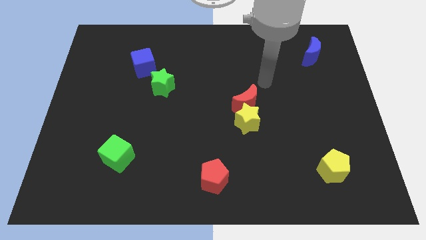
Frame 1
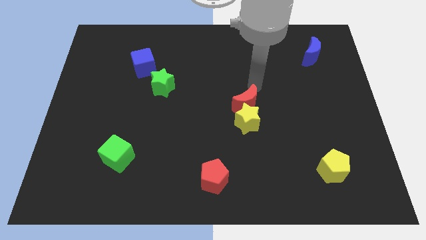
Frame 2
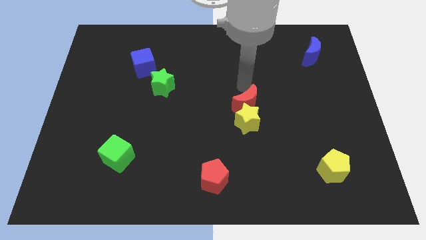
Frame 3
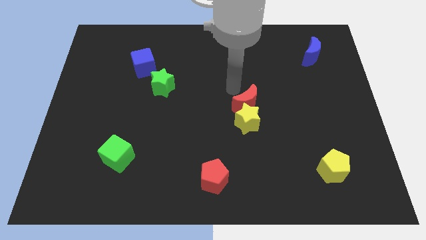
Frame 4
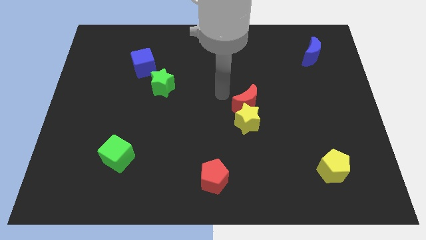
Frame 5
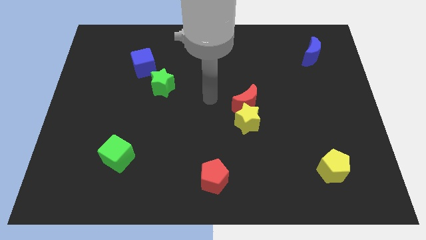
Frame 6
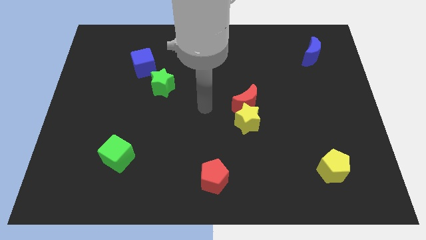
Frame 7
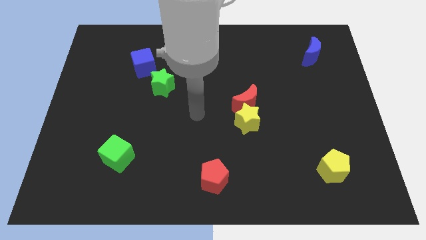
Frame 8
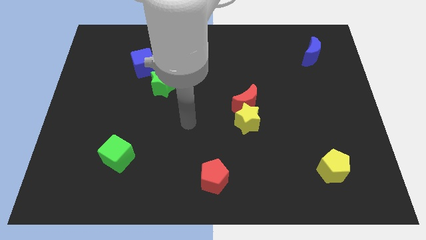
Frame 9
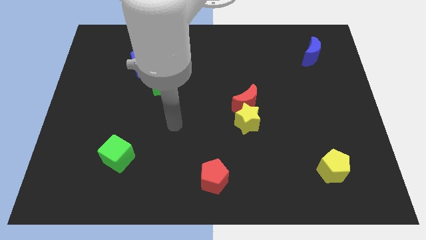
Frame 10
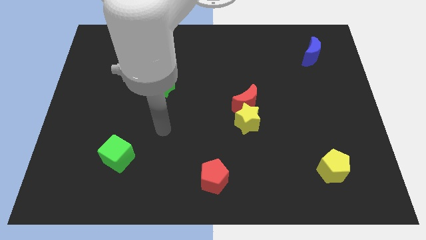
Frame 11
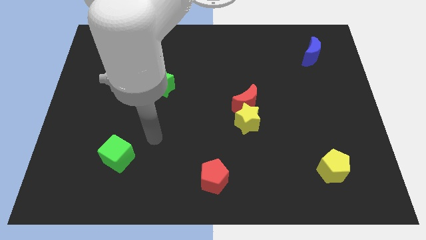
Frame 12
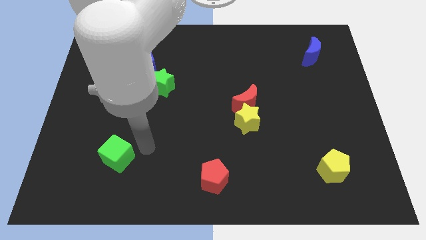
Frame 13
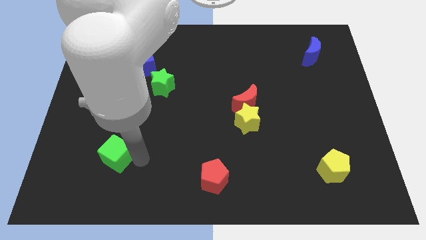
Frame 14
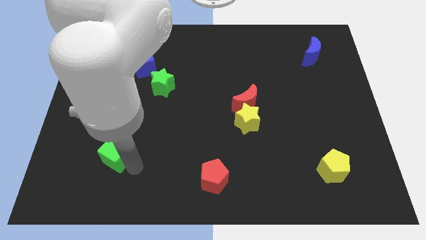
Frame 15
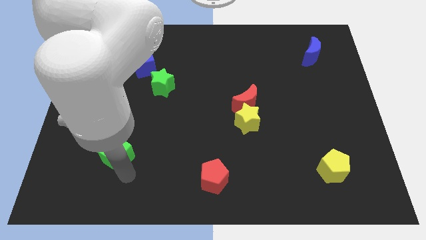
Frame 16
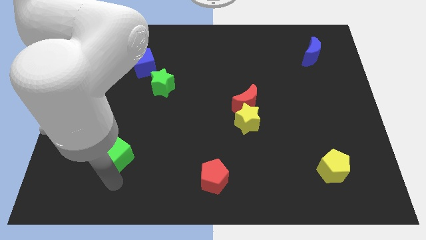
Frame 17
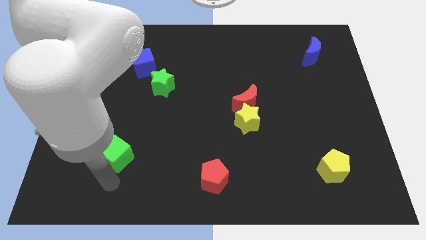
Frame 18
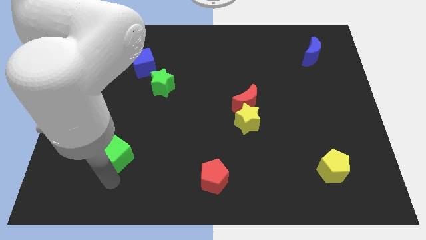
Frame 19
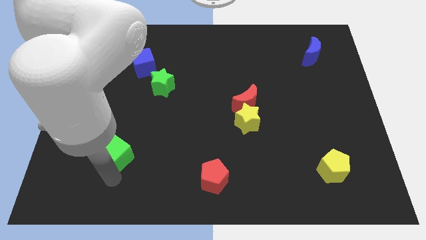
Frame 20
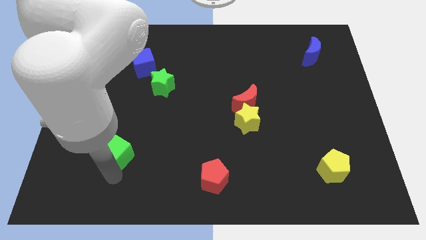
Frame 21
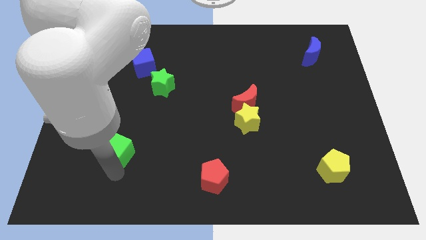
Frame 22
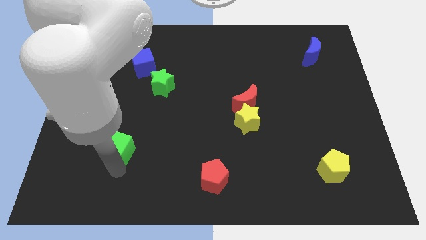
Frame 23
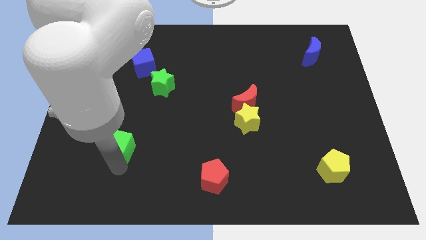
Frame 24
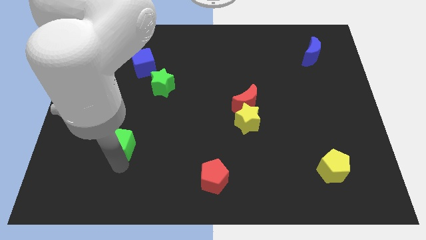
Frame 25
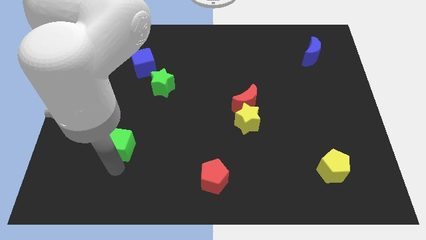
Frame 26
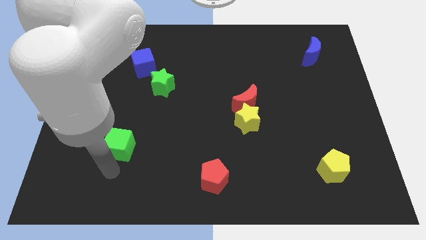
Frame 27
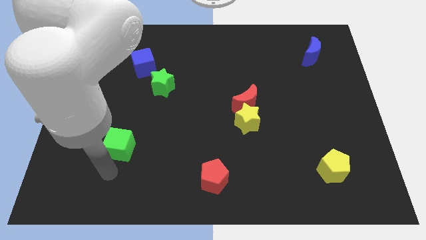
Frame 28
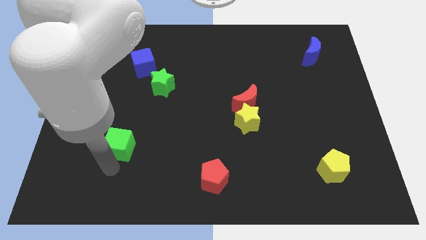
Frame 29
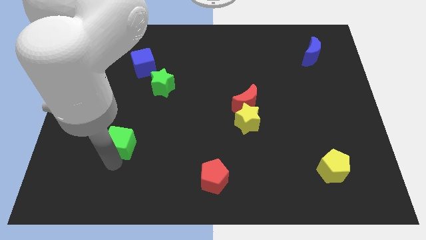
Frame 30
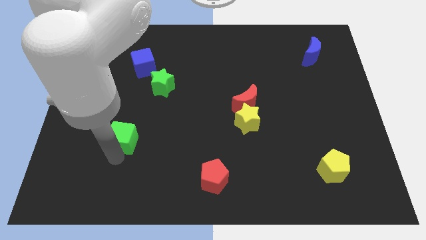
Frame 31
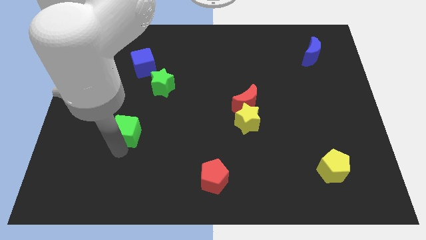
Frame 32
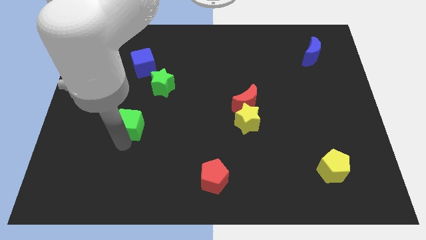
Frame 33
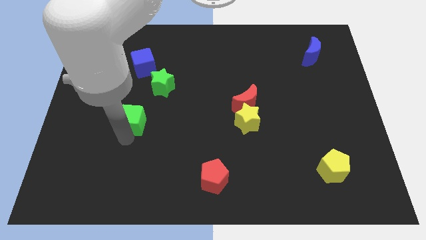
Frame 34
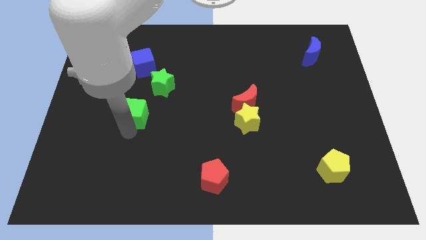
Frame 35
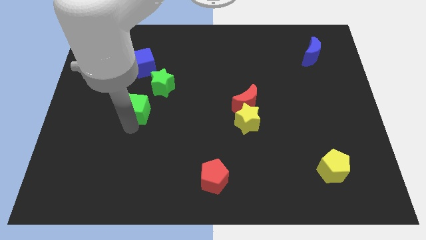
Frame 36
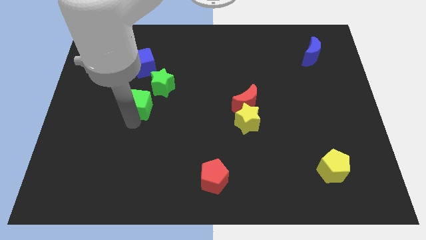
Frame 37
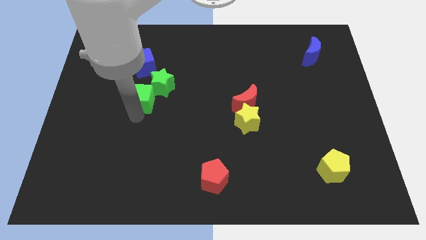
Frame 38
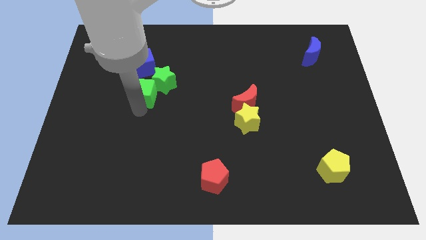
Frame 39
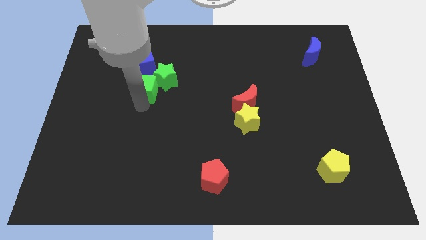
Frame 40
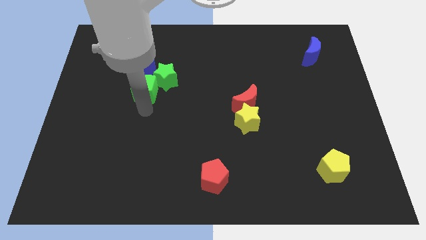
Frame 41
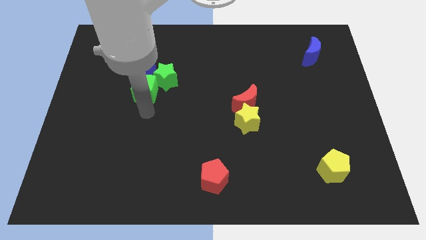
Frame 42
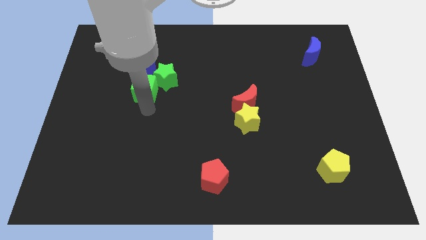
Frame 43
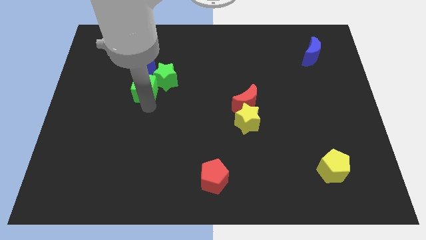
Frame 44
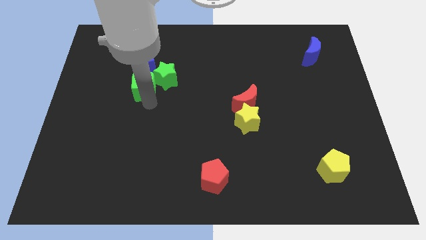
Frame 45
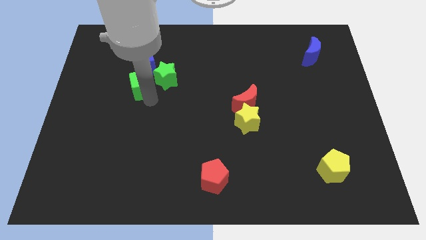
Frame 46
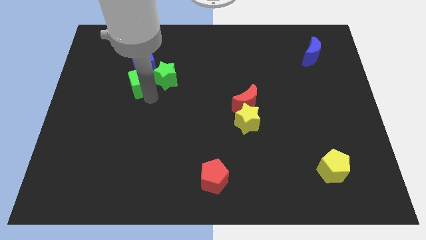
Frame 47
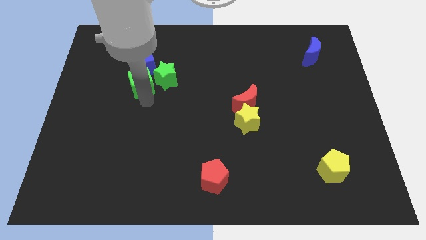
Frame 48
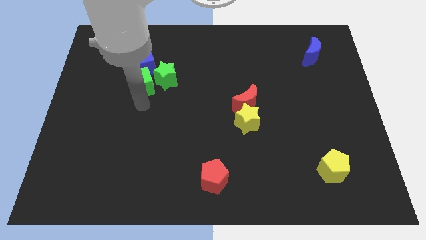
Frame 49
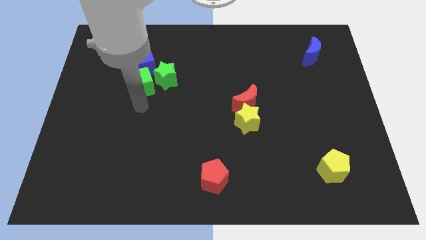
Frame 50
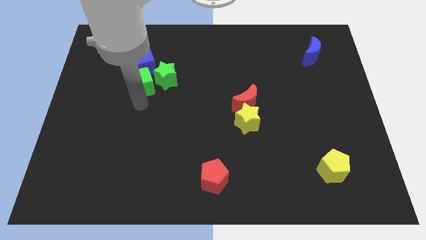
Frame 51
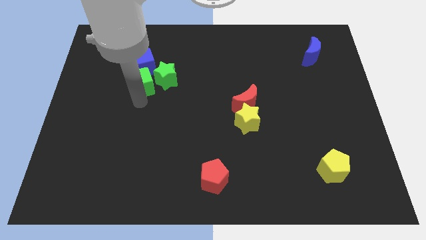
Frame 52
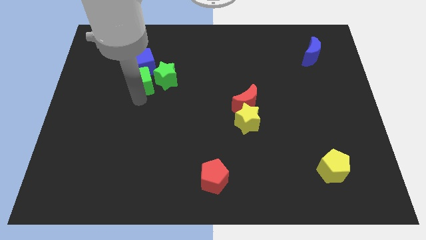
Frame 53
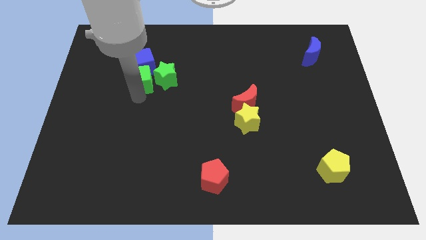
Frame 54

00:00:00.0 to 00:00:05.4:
put the green cube to the blue cube

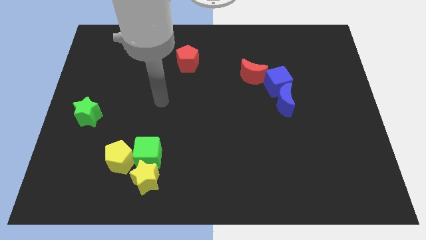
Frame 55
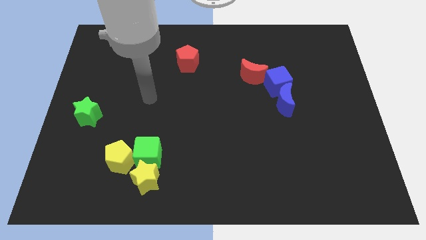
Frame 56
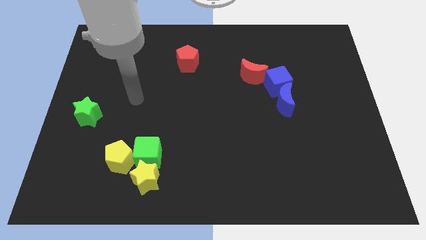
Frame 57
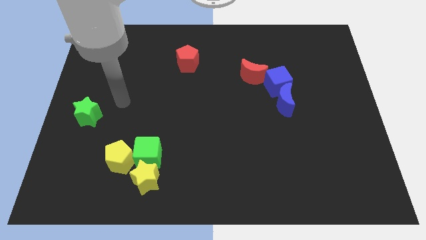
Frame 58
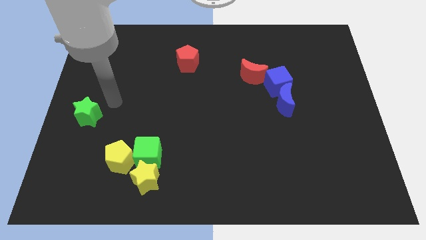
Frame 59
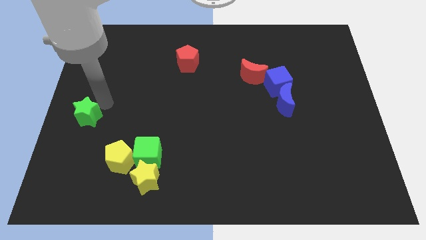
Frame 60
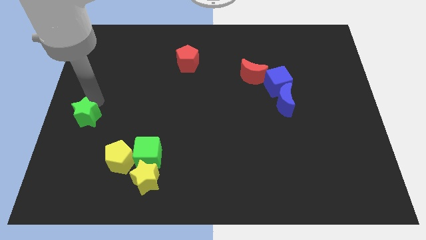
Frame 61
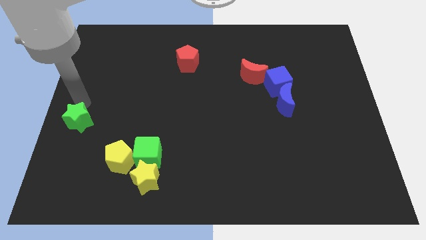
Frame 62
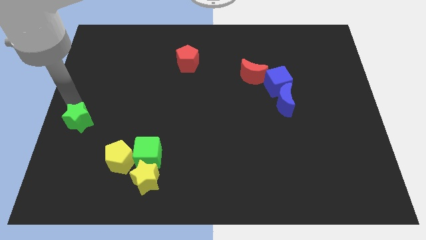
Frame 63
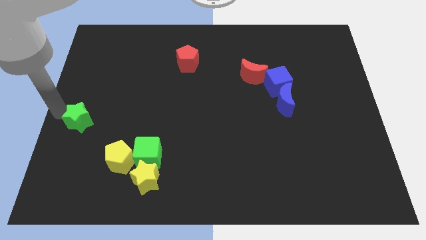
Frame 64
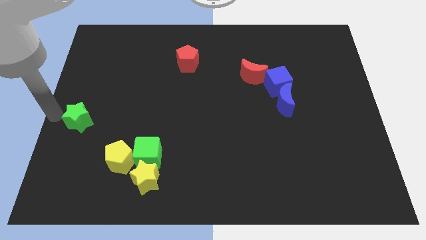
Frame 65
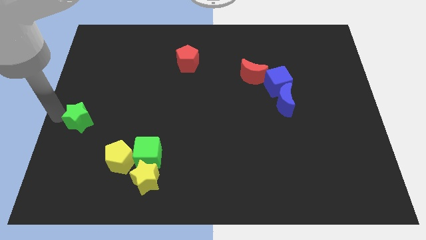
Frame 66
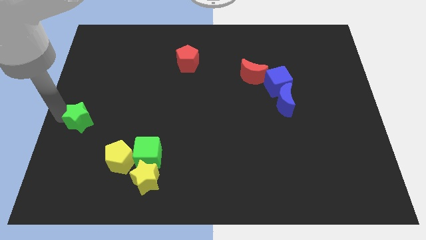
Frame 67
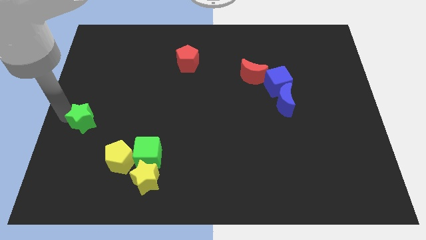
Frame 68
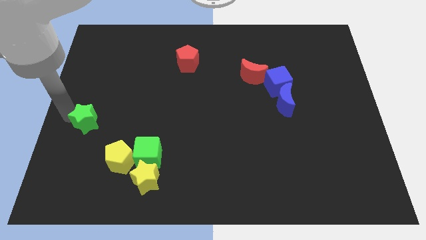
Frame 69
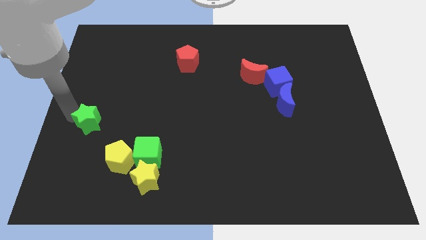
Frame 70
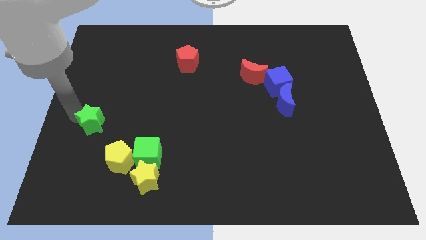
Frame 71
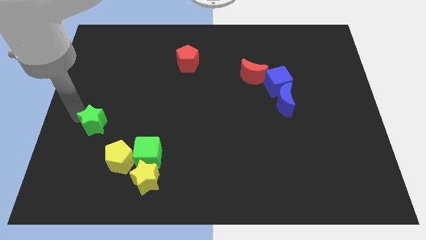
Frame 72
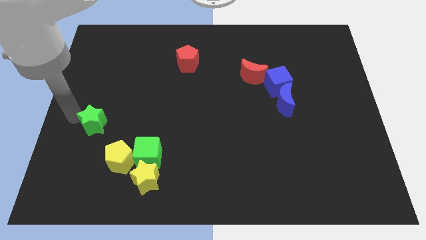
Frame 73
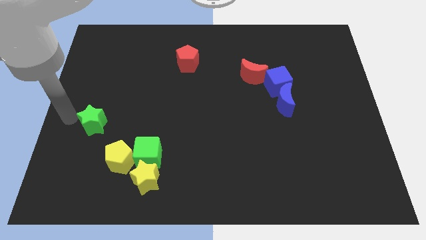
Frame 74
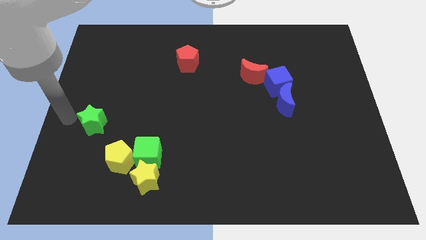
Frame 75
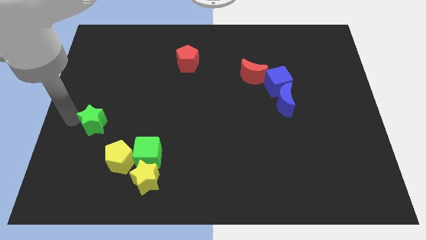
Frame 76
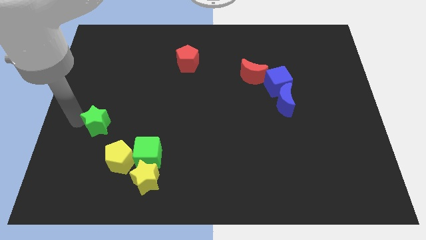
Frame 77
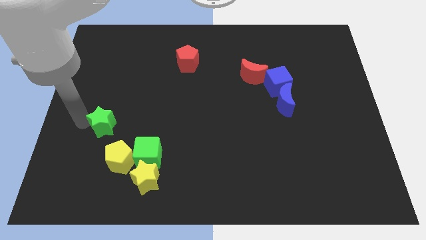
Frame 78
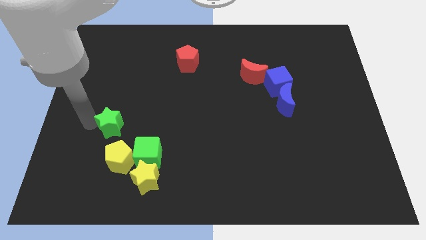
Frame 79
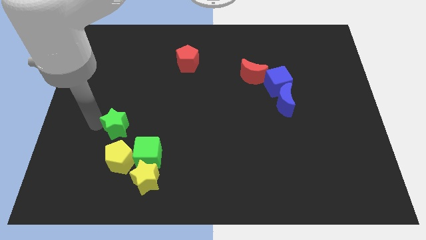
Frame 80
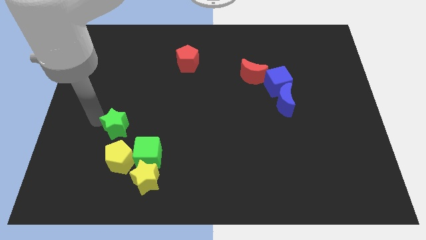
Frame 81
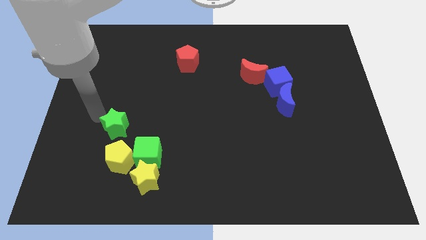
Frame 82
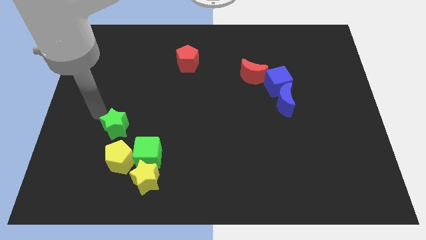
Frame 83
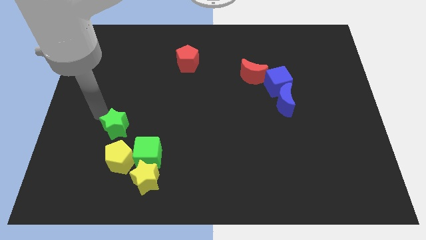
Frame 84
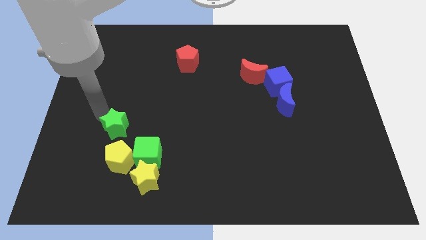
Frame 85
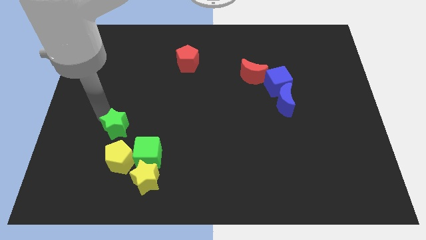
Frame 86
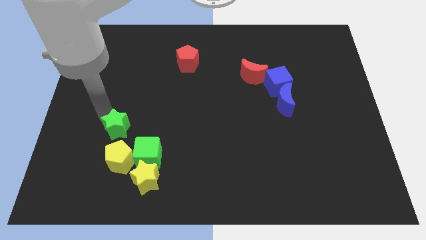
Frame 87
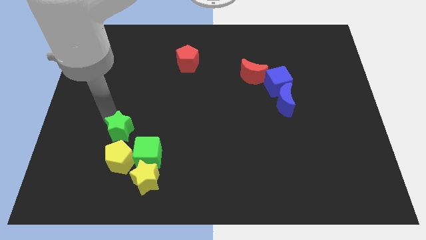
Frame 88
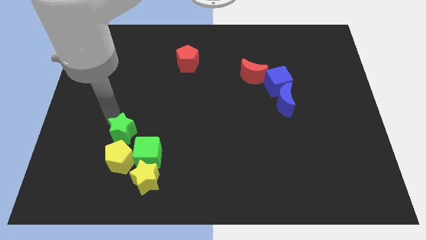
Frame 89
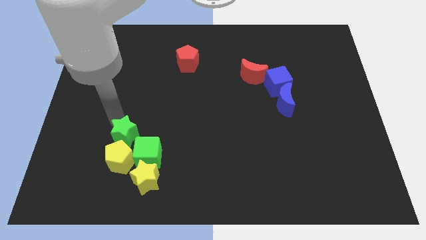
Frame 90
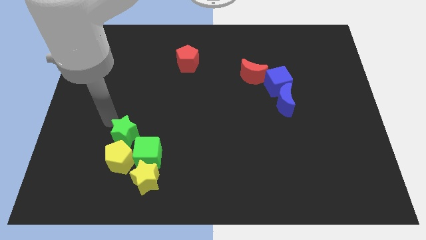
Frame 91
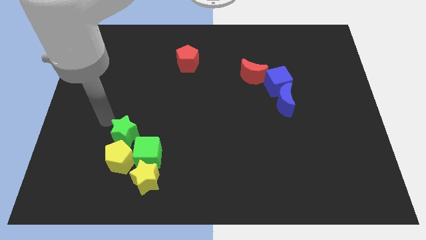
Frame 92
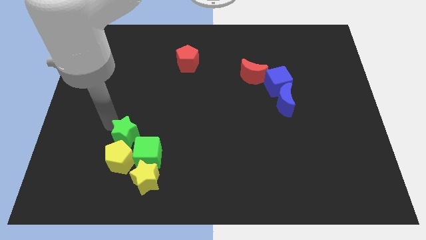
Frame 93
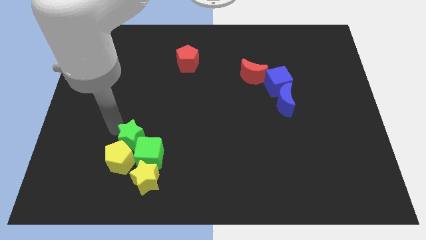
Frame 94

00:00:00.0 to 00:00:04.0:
move the green star to the green cube
